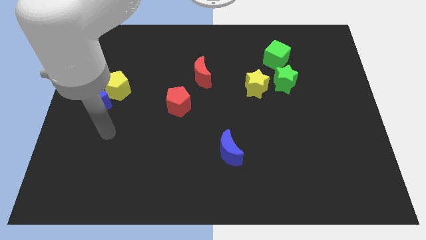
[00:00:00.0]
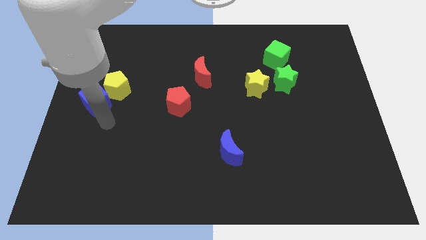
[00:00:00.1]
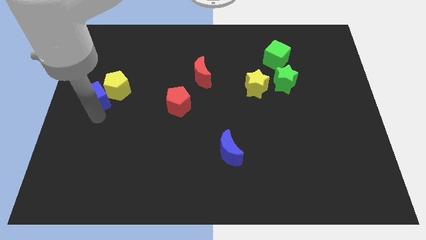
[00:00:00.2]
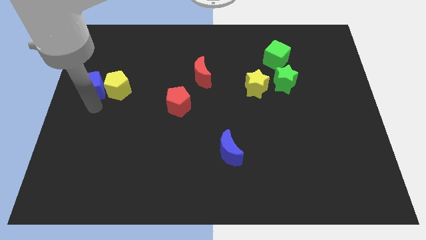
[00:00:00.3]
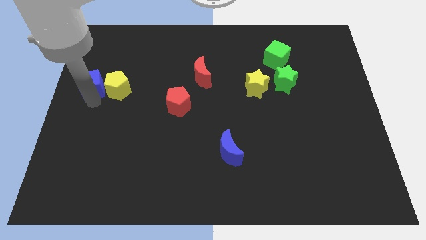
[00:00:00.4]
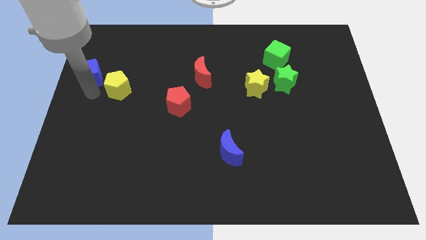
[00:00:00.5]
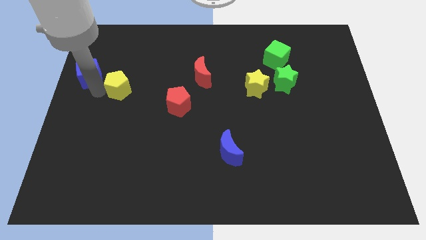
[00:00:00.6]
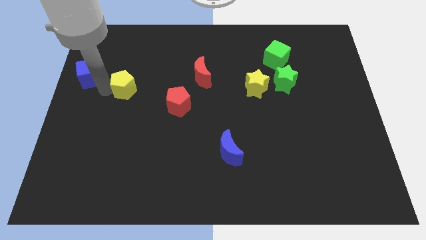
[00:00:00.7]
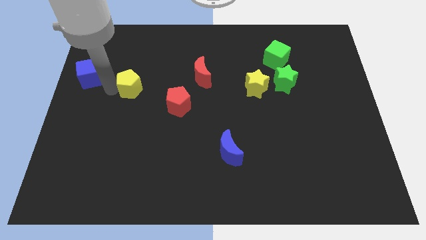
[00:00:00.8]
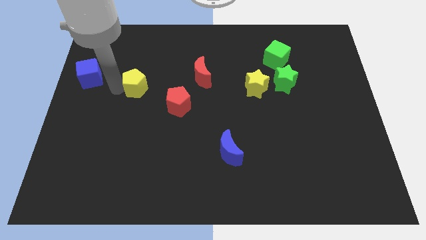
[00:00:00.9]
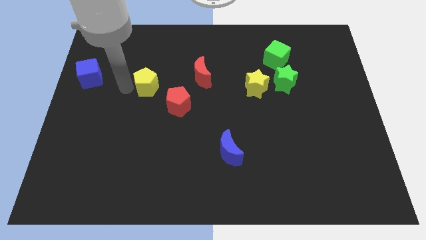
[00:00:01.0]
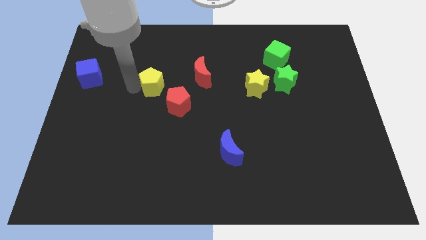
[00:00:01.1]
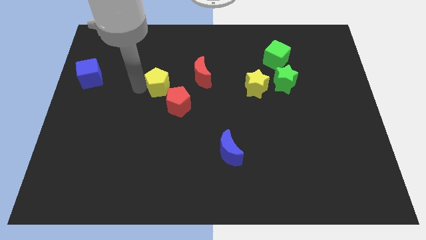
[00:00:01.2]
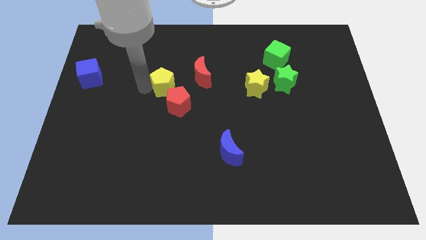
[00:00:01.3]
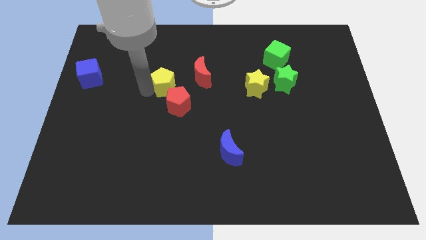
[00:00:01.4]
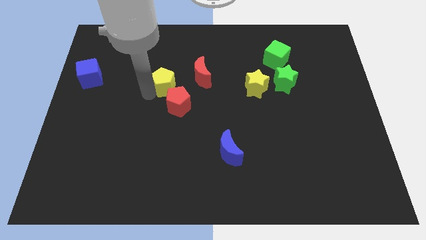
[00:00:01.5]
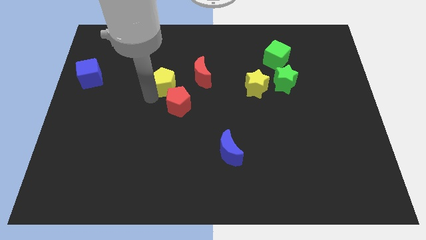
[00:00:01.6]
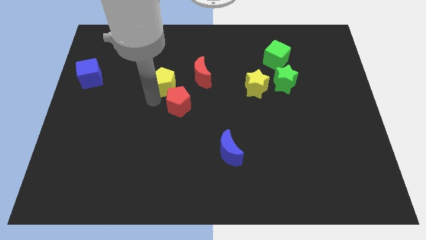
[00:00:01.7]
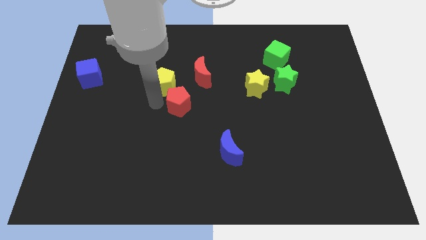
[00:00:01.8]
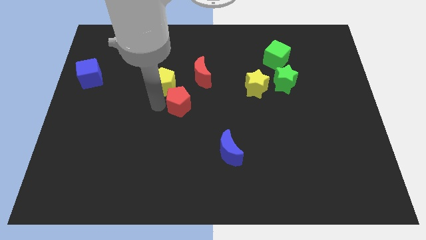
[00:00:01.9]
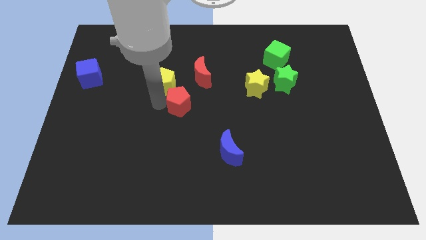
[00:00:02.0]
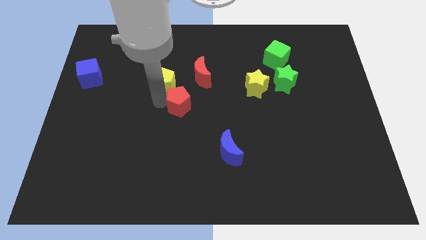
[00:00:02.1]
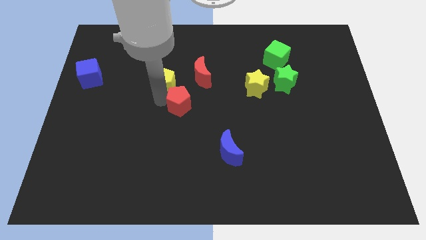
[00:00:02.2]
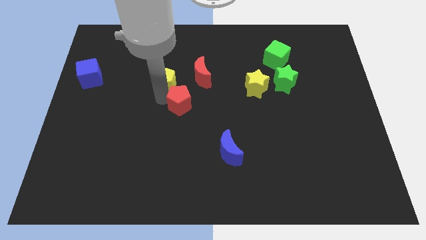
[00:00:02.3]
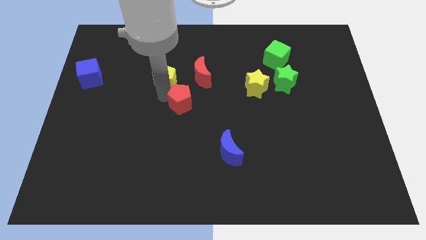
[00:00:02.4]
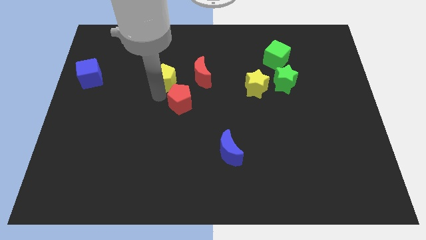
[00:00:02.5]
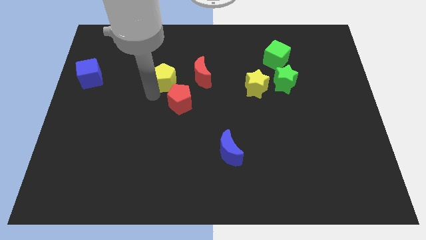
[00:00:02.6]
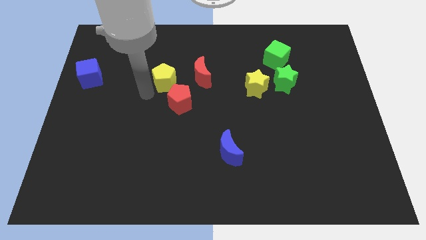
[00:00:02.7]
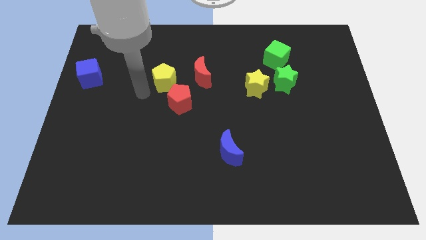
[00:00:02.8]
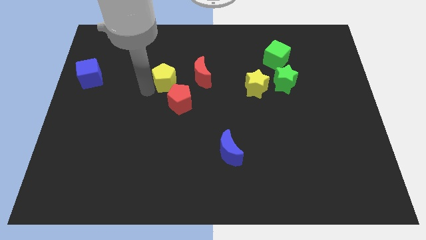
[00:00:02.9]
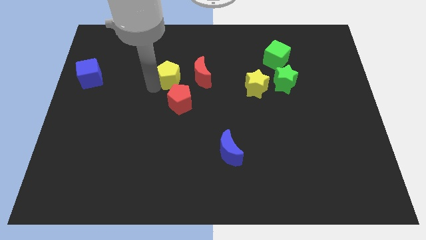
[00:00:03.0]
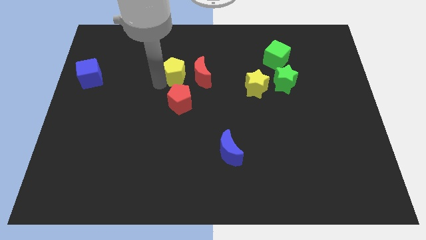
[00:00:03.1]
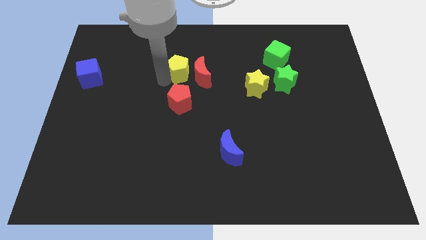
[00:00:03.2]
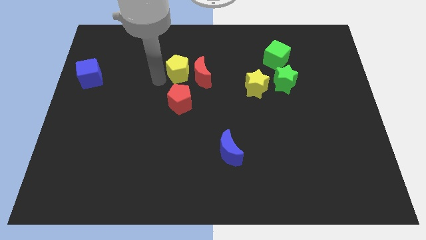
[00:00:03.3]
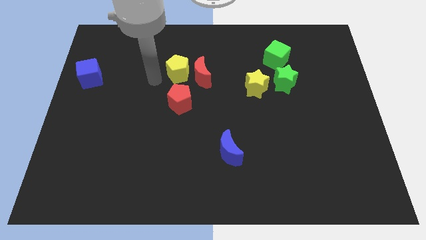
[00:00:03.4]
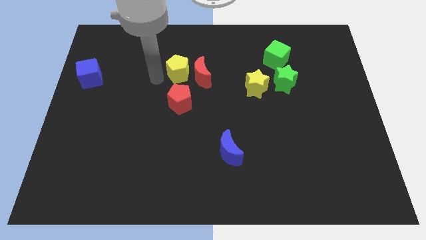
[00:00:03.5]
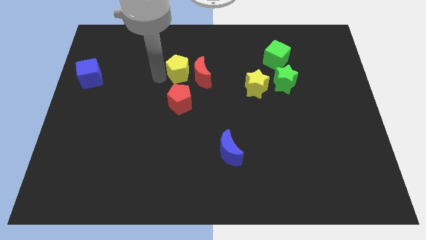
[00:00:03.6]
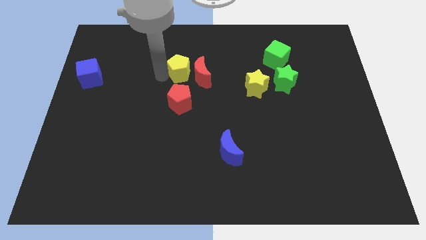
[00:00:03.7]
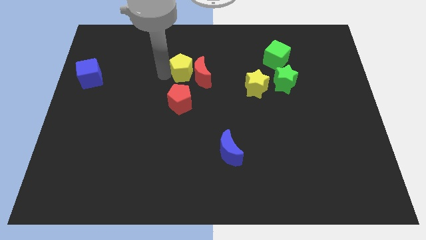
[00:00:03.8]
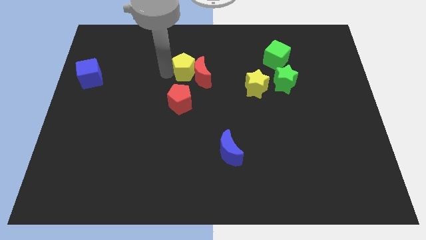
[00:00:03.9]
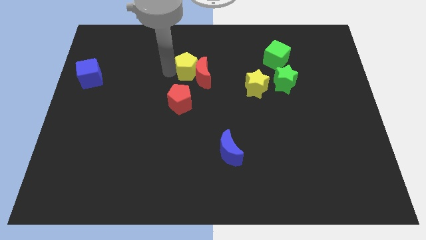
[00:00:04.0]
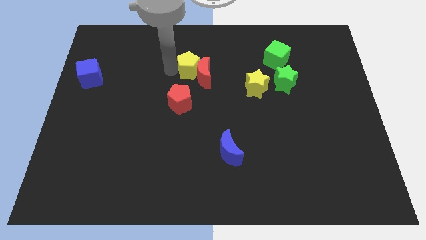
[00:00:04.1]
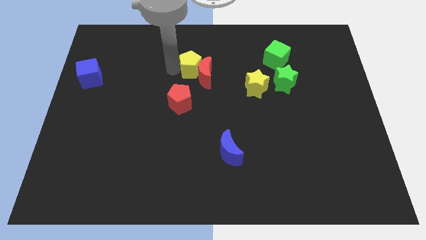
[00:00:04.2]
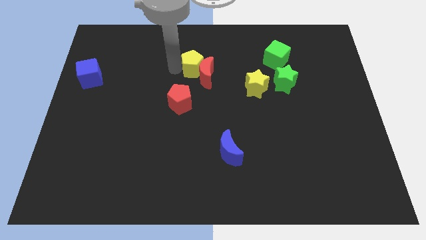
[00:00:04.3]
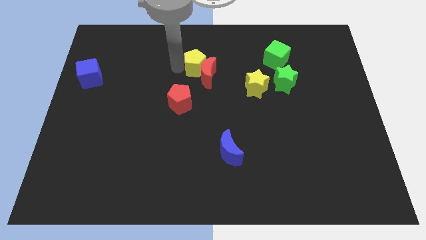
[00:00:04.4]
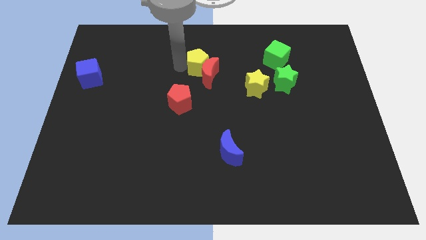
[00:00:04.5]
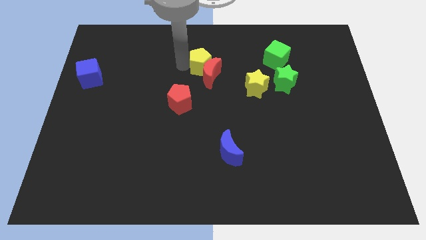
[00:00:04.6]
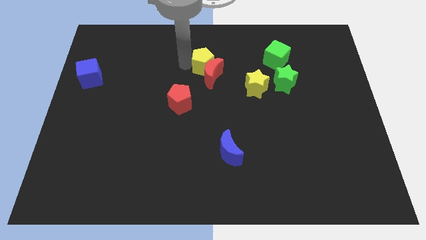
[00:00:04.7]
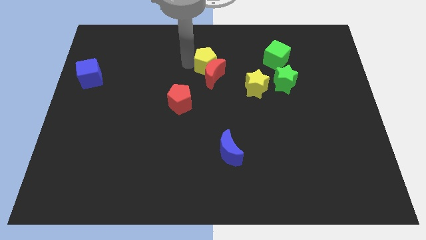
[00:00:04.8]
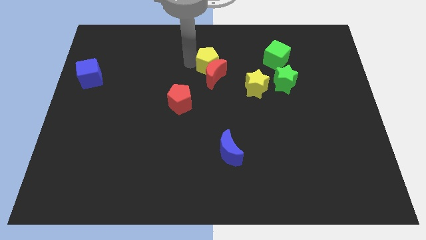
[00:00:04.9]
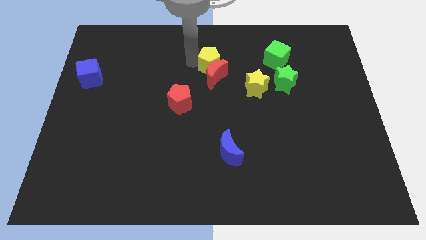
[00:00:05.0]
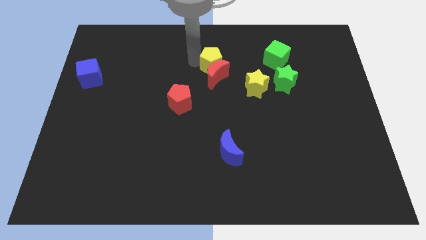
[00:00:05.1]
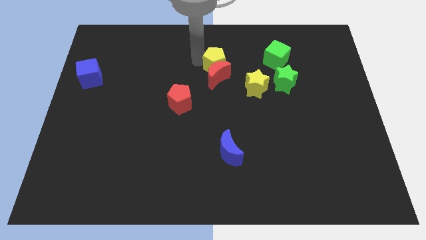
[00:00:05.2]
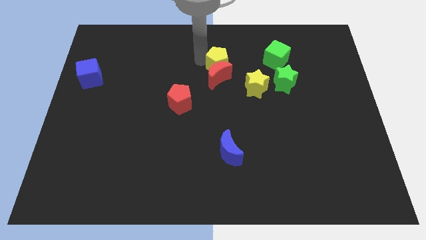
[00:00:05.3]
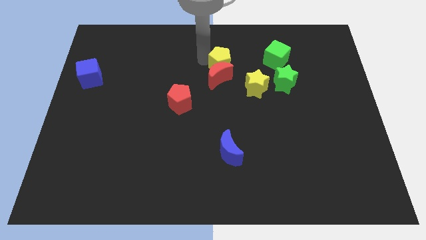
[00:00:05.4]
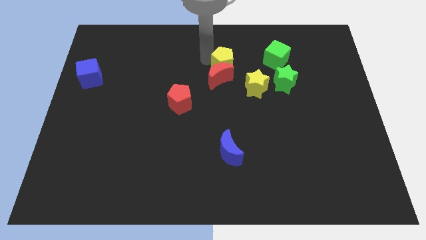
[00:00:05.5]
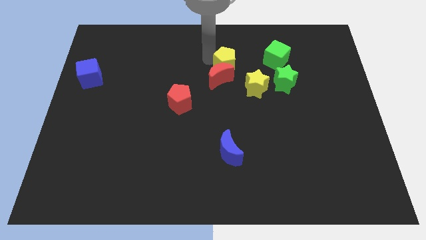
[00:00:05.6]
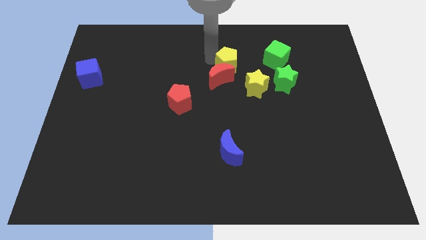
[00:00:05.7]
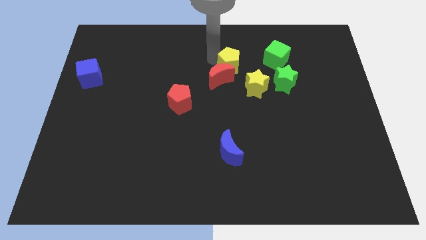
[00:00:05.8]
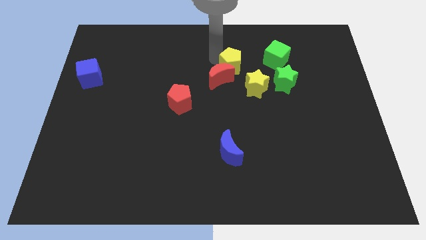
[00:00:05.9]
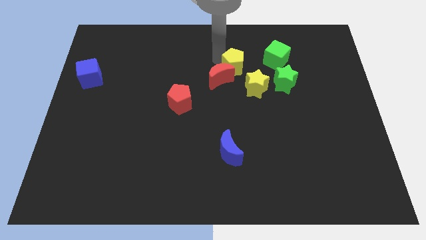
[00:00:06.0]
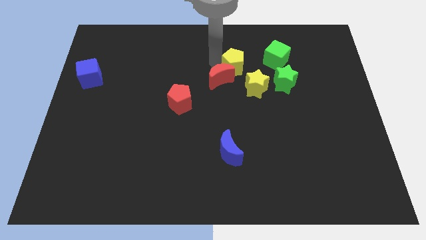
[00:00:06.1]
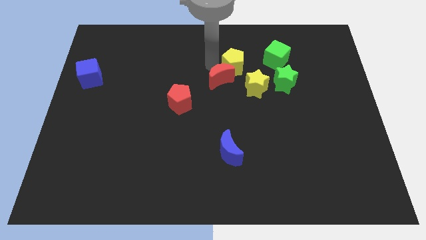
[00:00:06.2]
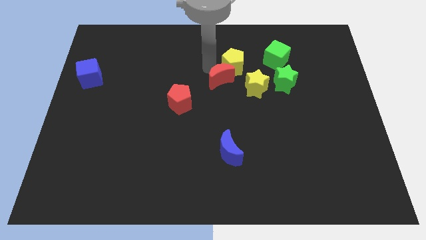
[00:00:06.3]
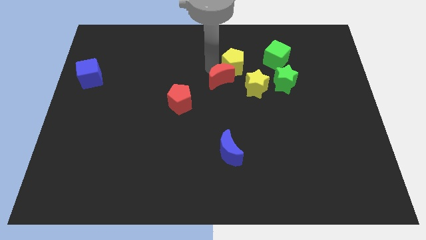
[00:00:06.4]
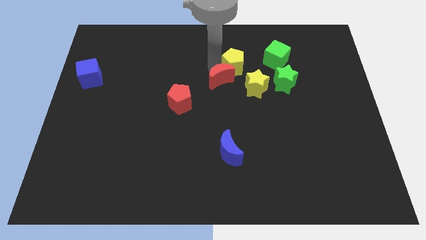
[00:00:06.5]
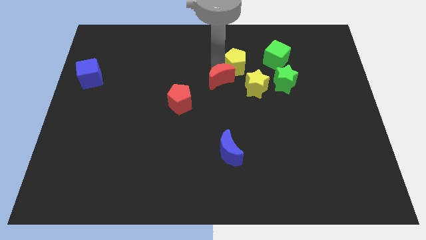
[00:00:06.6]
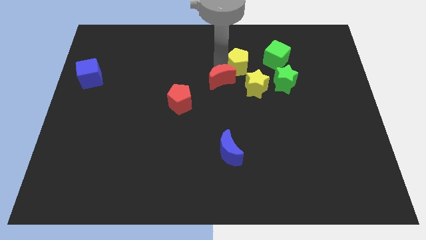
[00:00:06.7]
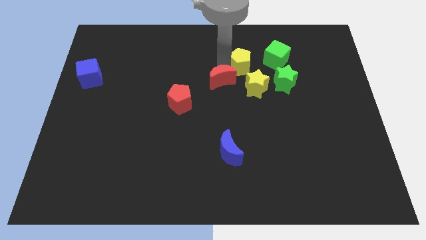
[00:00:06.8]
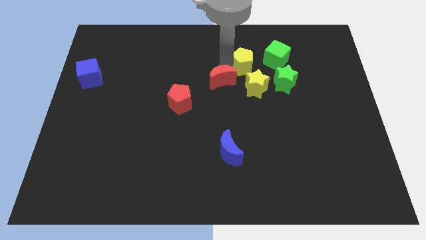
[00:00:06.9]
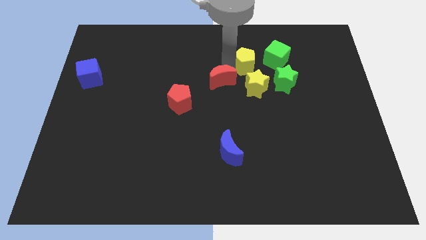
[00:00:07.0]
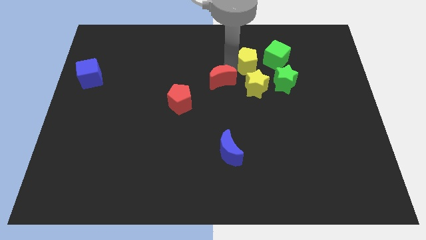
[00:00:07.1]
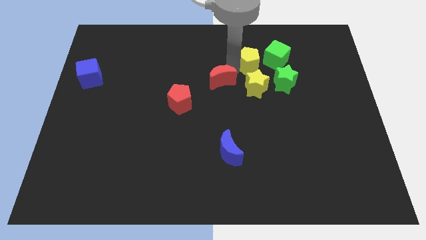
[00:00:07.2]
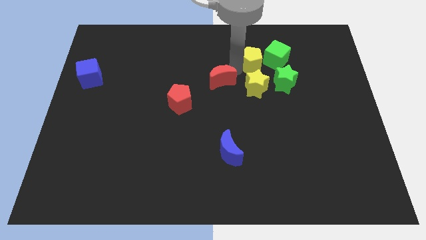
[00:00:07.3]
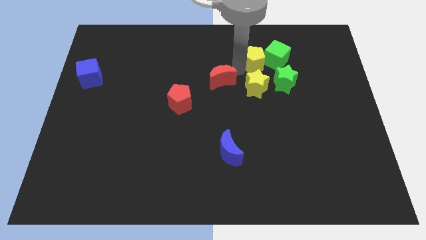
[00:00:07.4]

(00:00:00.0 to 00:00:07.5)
slide the yellow pentagon towards the green cube
